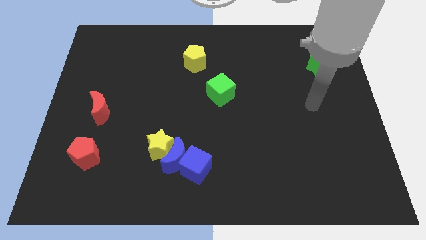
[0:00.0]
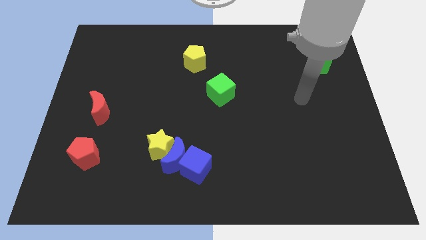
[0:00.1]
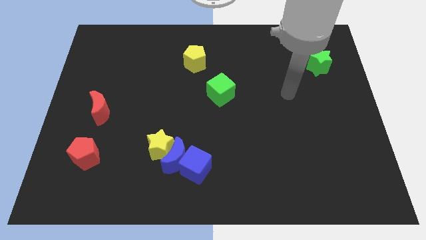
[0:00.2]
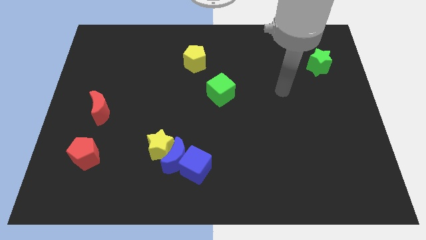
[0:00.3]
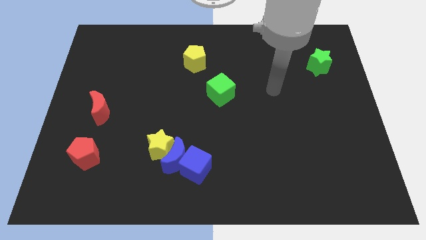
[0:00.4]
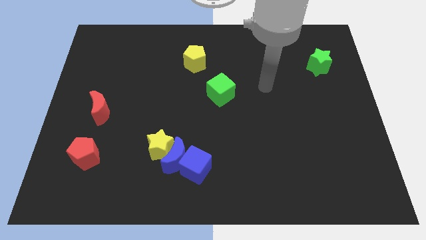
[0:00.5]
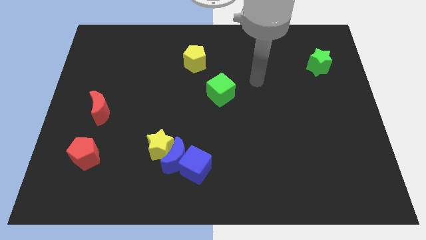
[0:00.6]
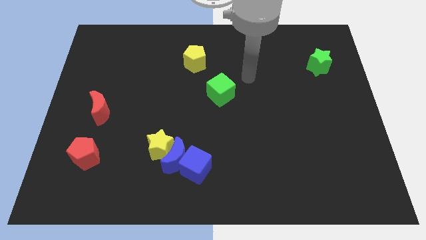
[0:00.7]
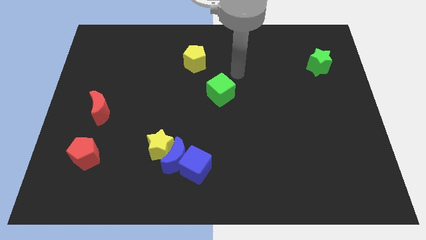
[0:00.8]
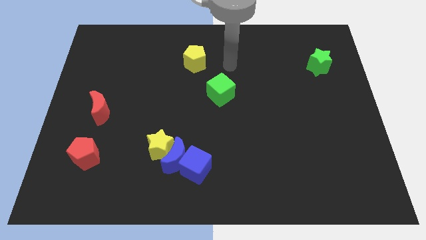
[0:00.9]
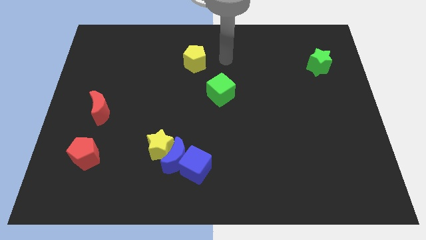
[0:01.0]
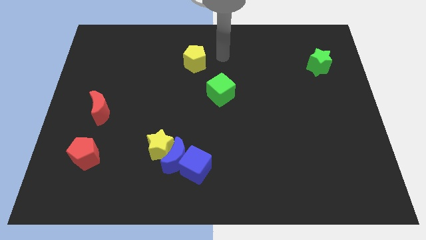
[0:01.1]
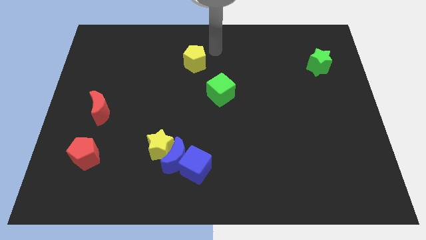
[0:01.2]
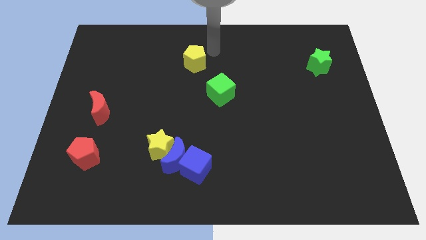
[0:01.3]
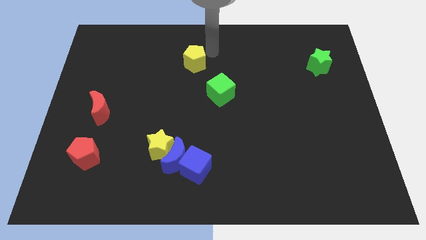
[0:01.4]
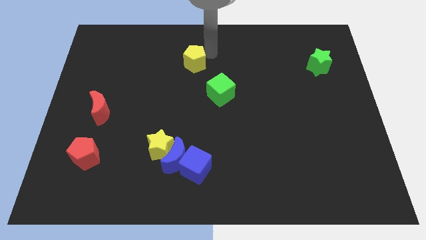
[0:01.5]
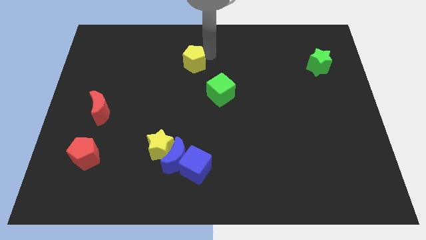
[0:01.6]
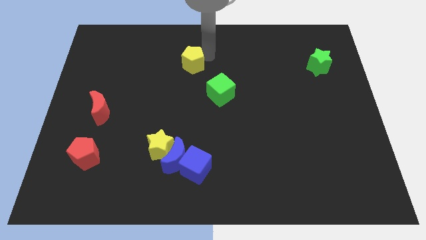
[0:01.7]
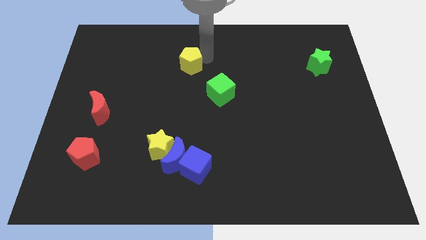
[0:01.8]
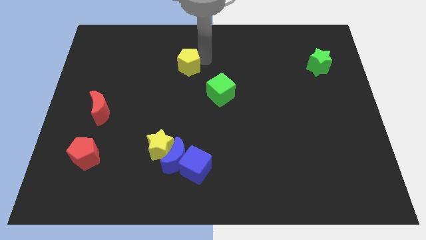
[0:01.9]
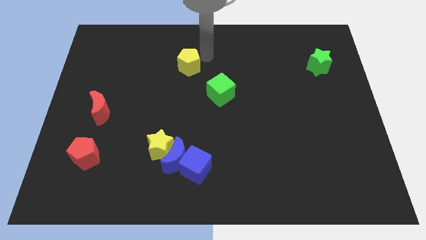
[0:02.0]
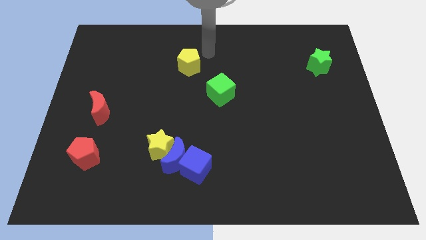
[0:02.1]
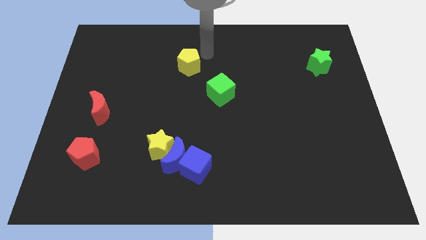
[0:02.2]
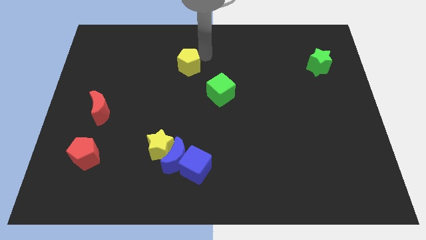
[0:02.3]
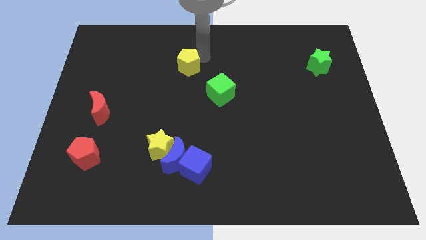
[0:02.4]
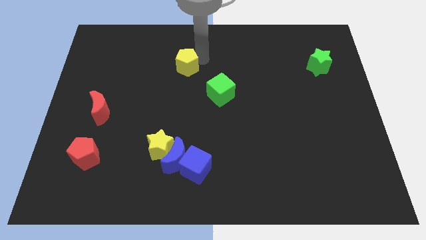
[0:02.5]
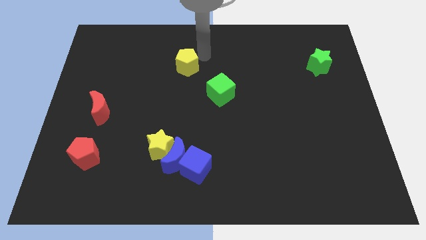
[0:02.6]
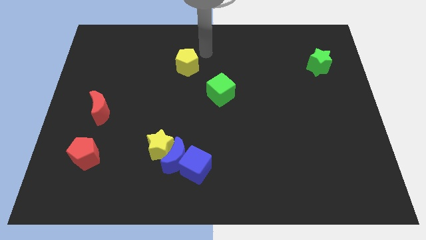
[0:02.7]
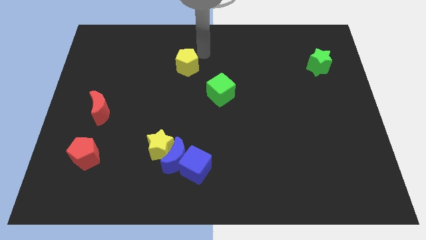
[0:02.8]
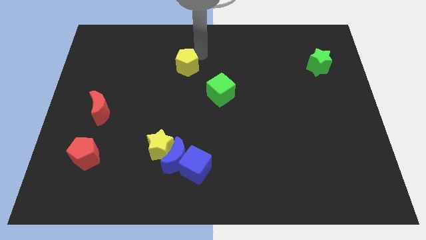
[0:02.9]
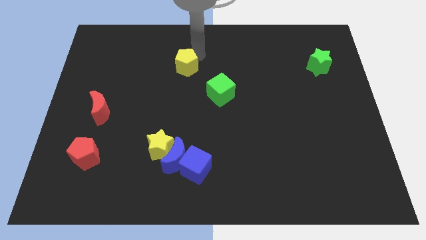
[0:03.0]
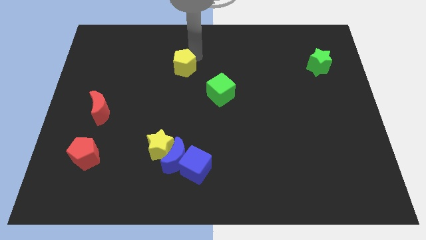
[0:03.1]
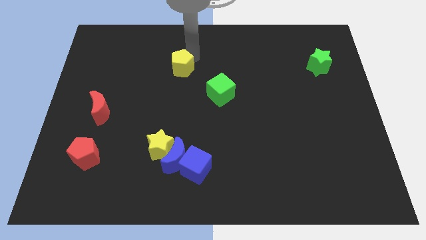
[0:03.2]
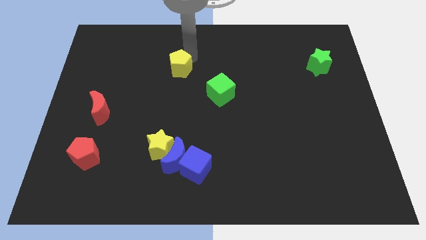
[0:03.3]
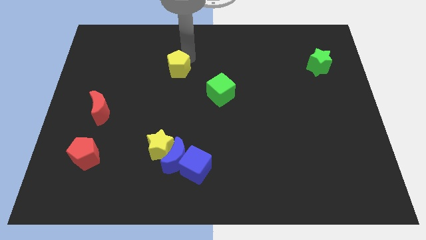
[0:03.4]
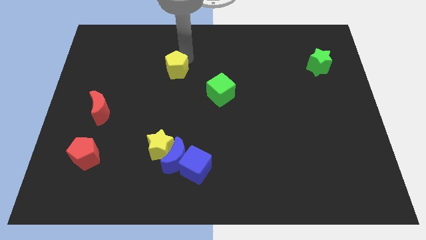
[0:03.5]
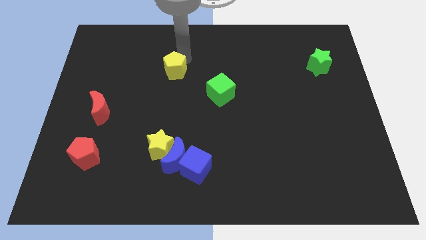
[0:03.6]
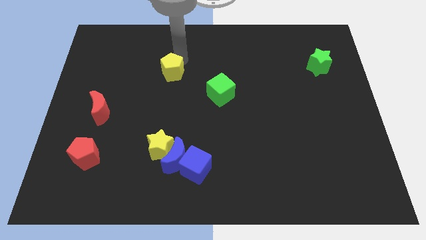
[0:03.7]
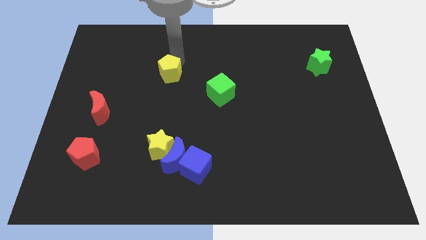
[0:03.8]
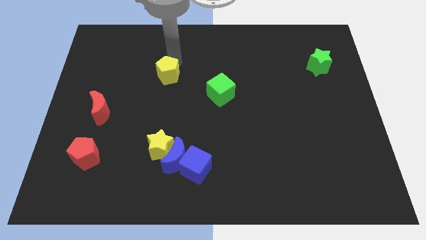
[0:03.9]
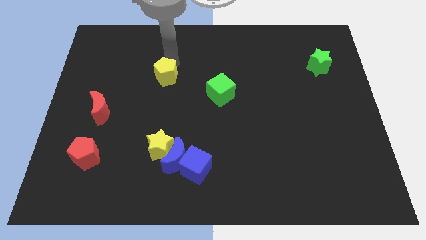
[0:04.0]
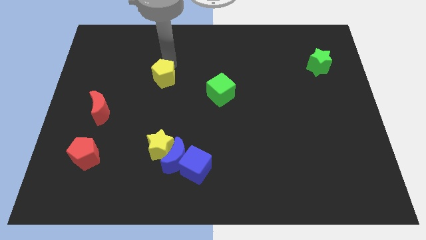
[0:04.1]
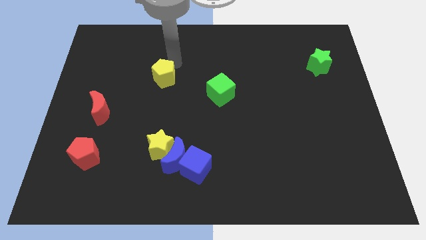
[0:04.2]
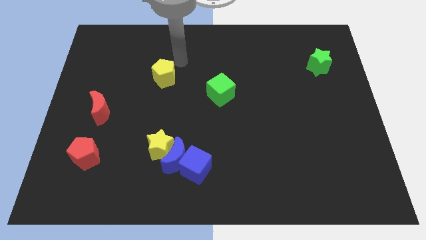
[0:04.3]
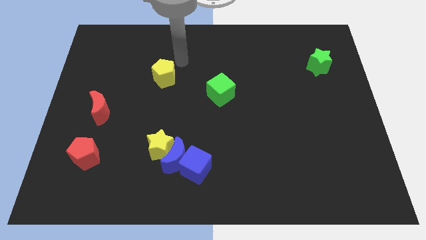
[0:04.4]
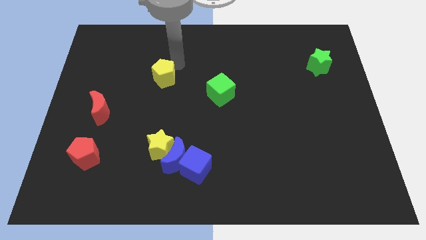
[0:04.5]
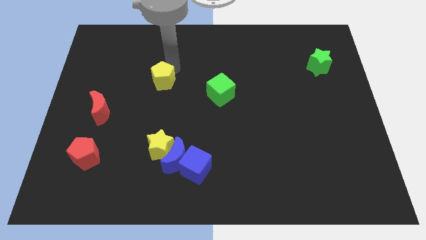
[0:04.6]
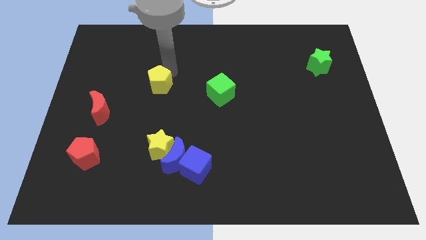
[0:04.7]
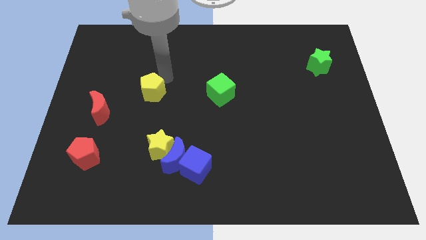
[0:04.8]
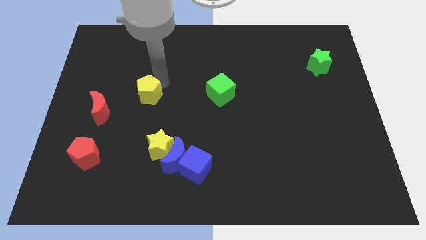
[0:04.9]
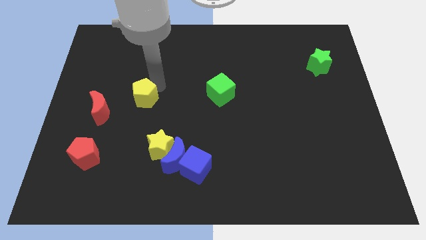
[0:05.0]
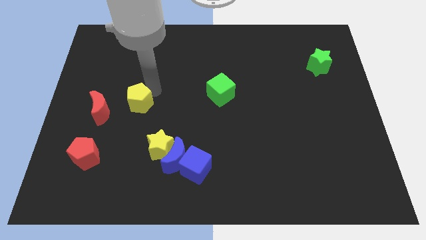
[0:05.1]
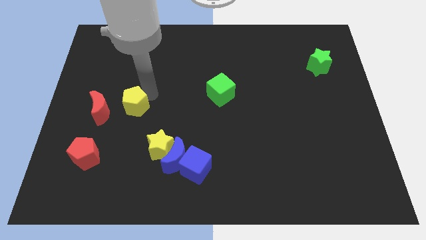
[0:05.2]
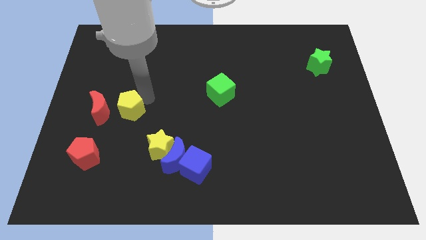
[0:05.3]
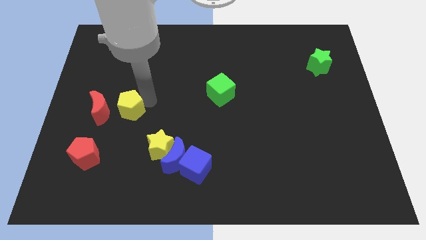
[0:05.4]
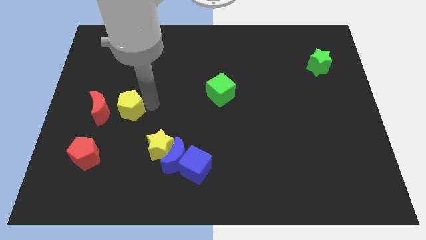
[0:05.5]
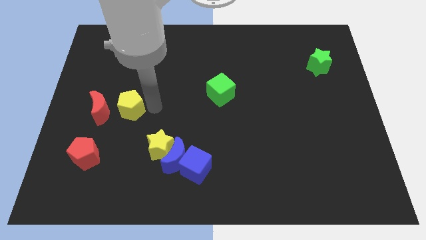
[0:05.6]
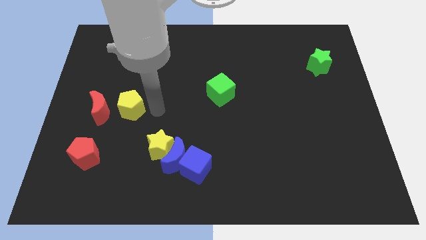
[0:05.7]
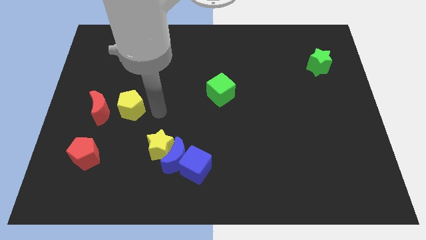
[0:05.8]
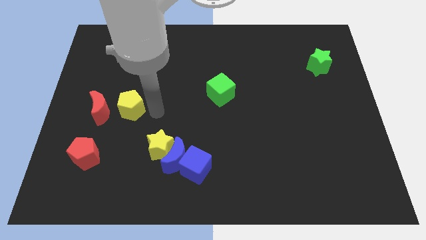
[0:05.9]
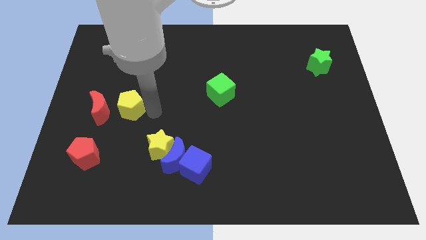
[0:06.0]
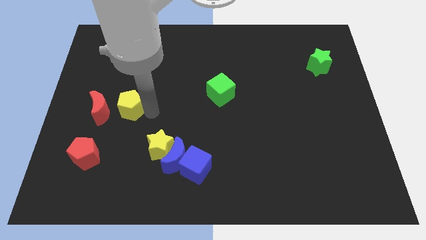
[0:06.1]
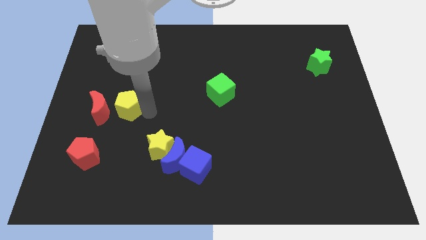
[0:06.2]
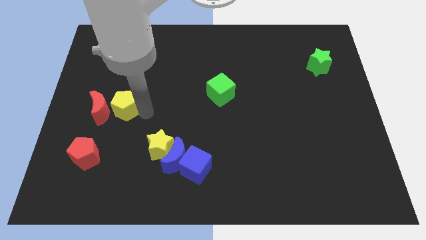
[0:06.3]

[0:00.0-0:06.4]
slide the yellow pentagon close to the red moon

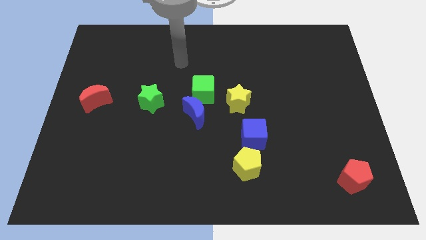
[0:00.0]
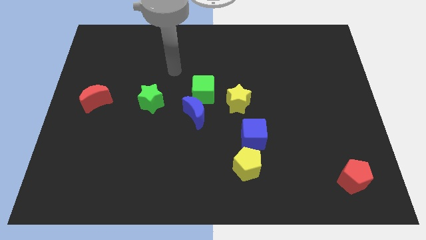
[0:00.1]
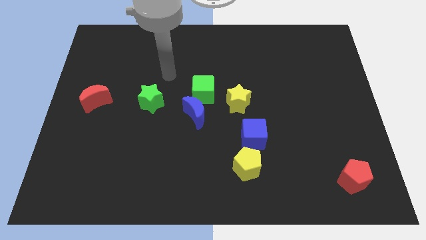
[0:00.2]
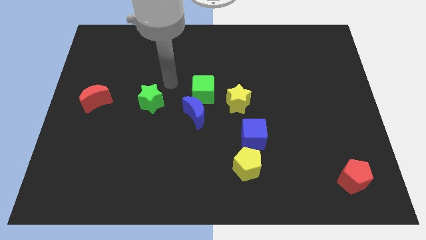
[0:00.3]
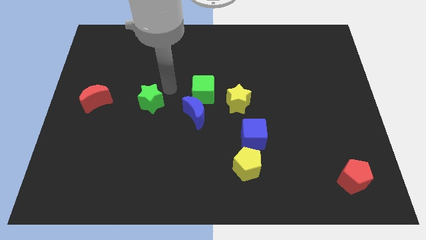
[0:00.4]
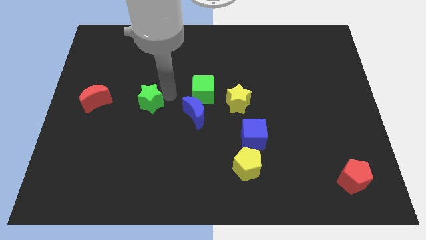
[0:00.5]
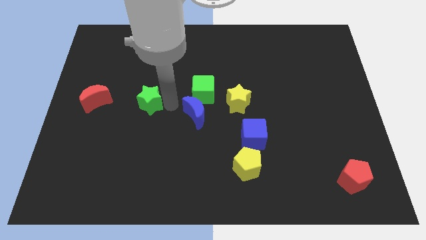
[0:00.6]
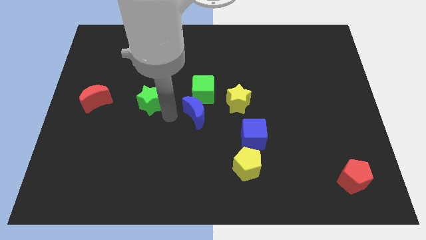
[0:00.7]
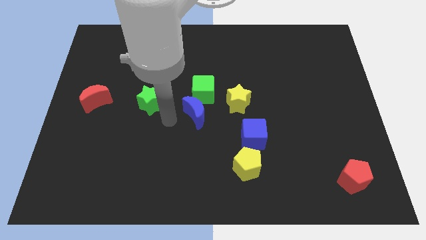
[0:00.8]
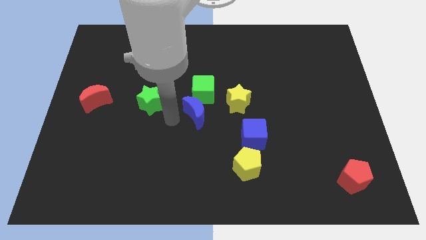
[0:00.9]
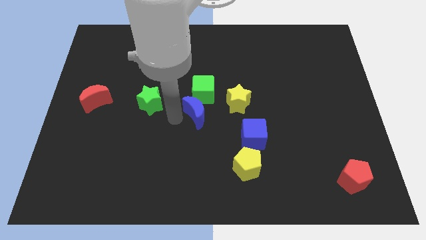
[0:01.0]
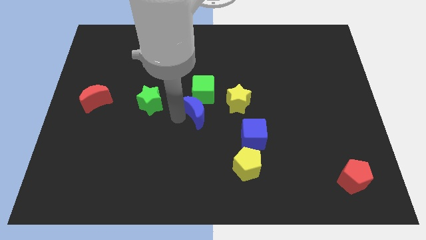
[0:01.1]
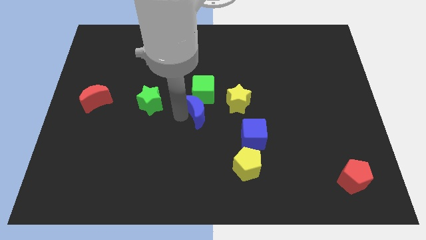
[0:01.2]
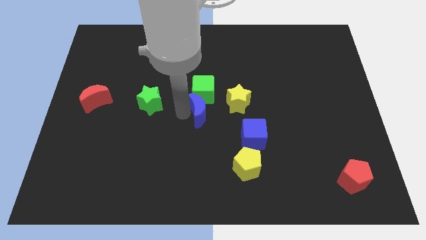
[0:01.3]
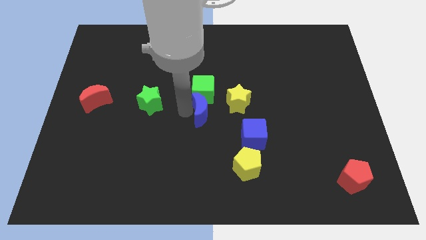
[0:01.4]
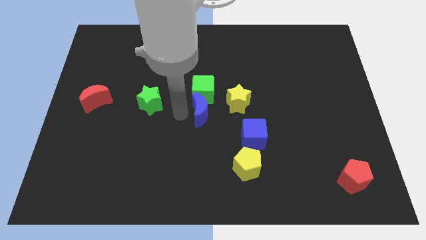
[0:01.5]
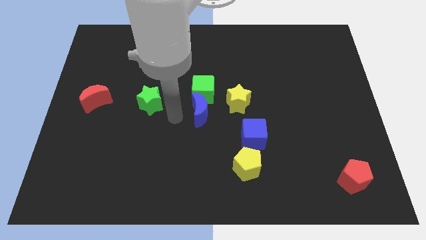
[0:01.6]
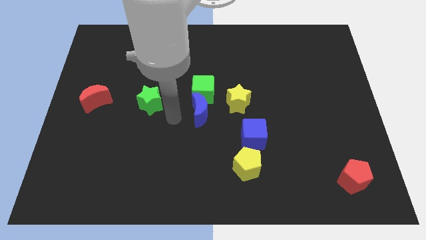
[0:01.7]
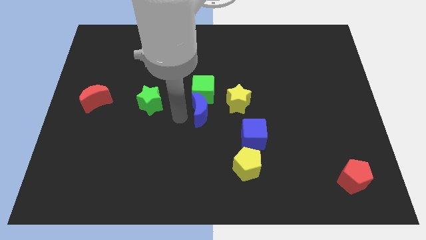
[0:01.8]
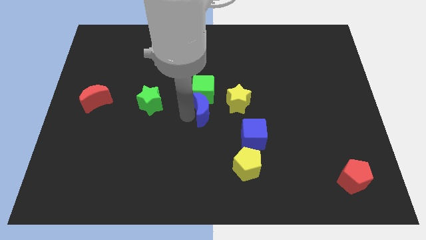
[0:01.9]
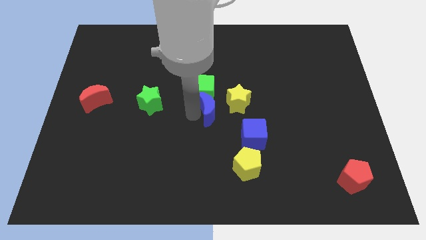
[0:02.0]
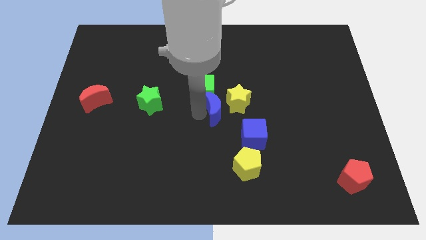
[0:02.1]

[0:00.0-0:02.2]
move the blue moon close to the yellow star
